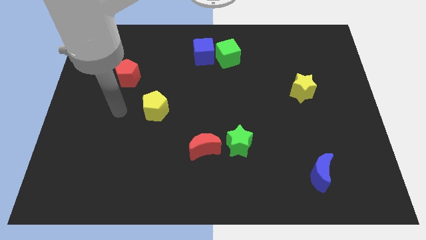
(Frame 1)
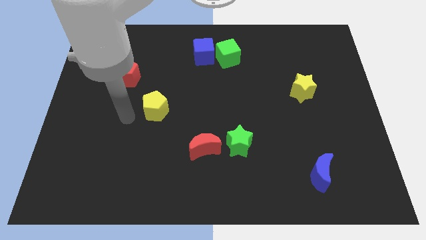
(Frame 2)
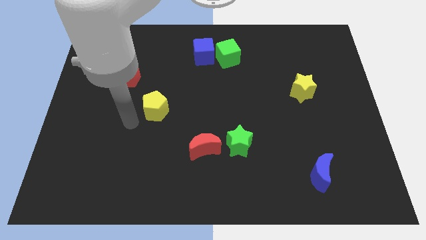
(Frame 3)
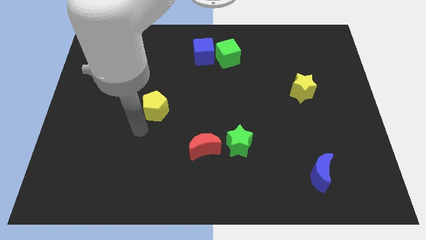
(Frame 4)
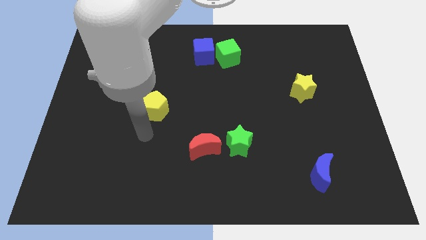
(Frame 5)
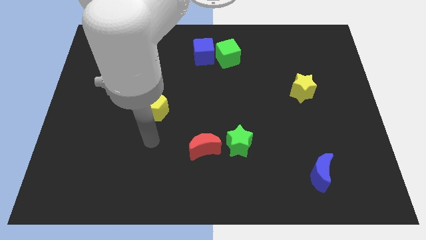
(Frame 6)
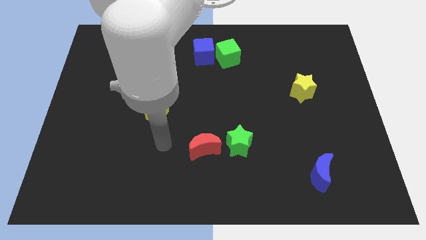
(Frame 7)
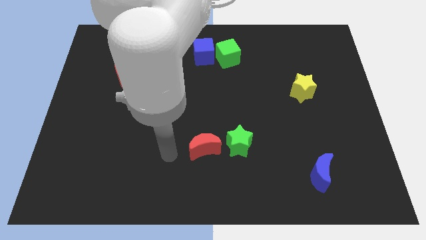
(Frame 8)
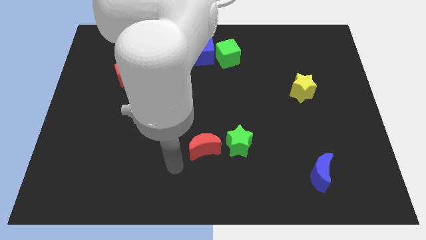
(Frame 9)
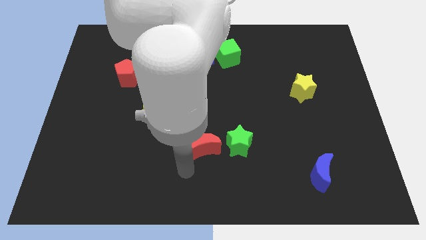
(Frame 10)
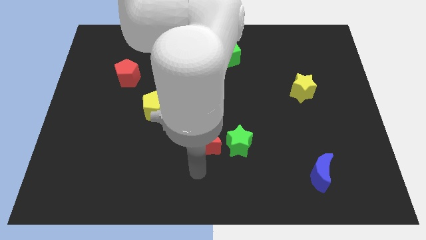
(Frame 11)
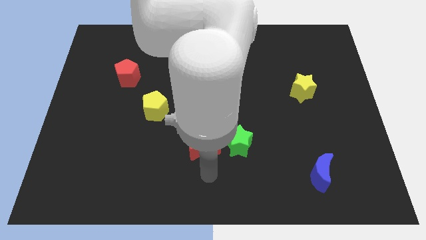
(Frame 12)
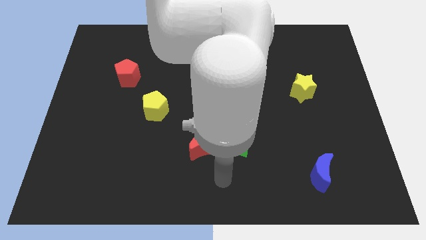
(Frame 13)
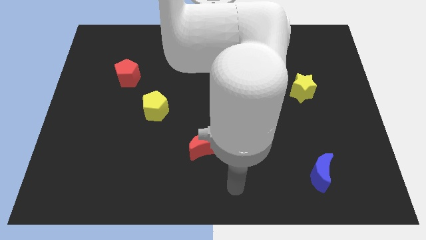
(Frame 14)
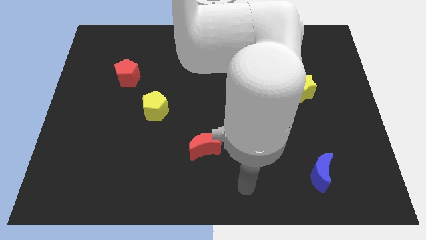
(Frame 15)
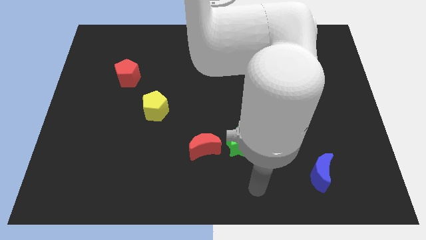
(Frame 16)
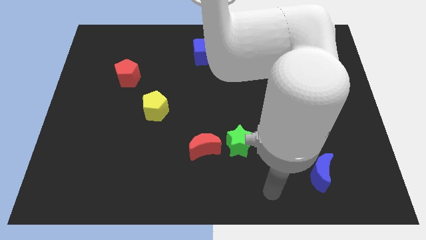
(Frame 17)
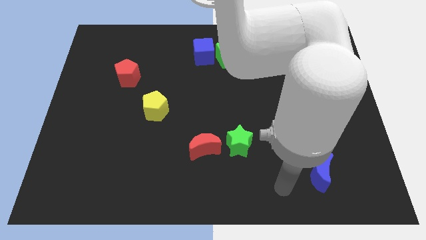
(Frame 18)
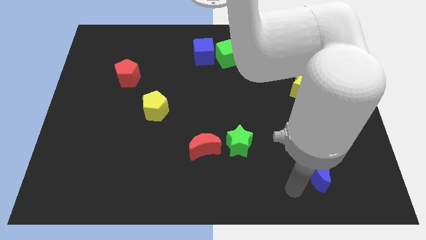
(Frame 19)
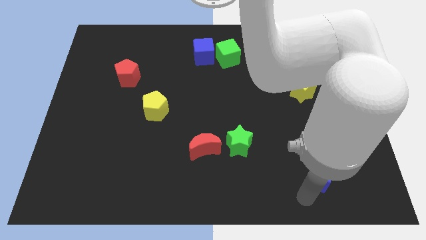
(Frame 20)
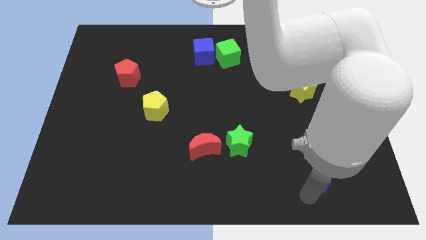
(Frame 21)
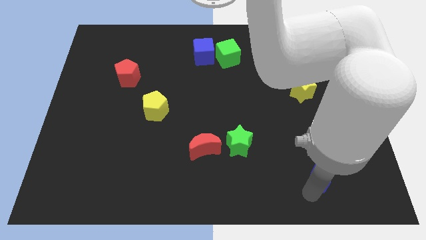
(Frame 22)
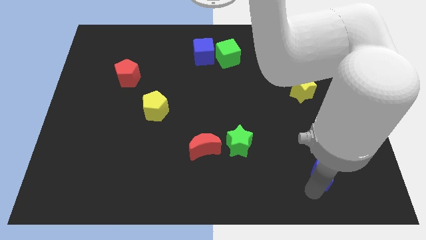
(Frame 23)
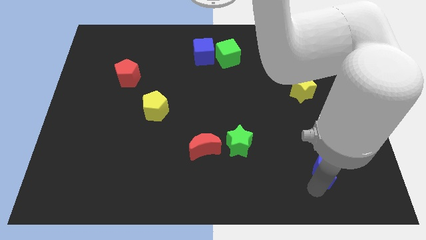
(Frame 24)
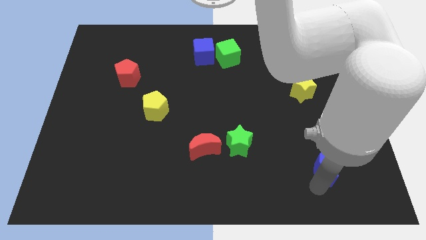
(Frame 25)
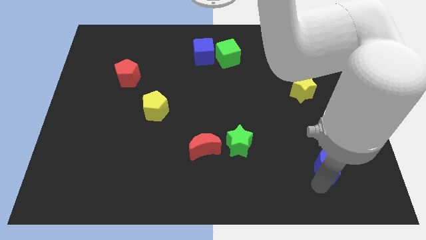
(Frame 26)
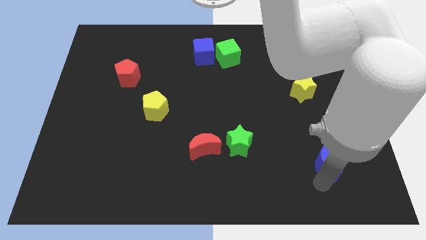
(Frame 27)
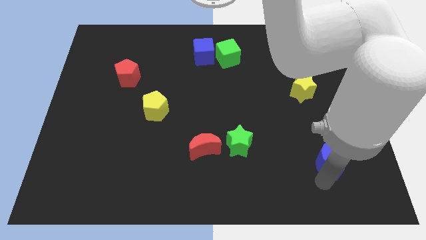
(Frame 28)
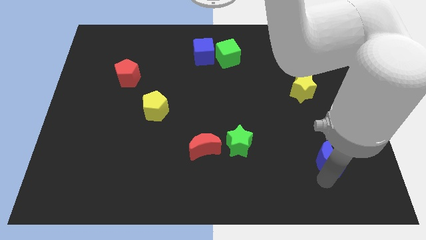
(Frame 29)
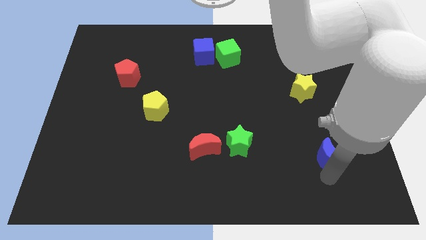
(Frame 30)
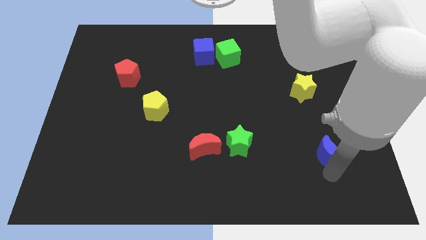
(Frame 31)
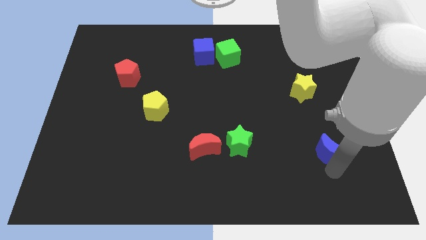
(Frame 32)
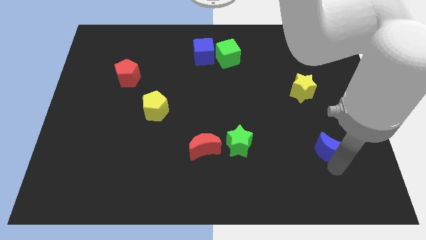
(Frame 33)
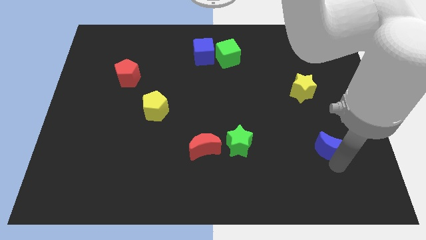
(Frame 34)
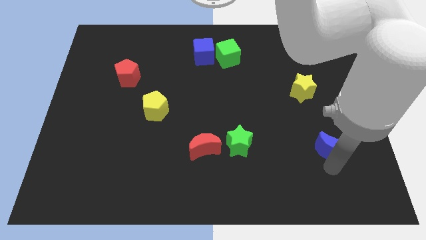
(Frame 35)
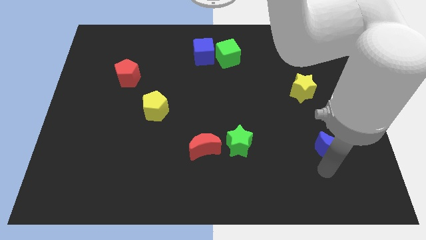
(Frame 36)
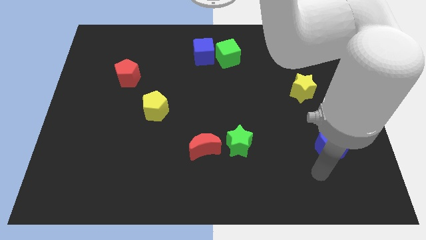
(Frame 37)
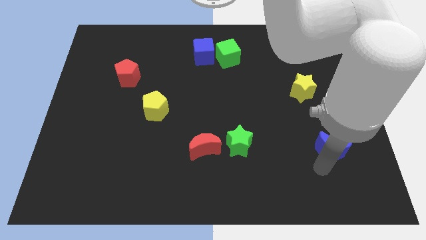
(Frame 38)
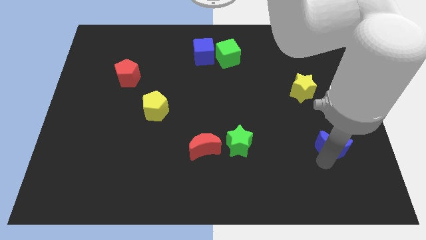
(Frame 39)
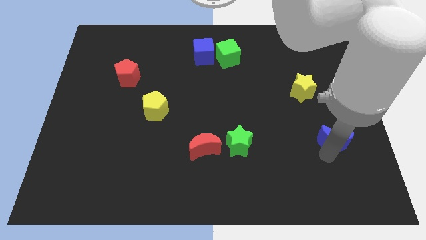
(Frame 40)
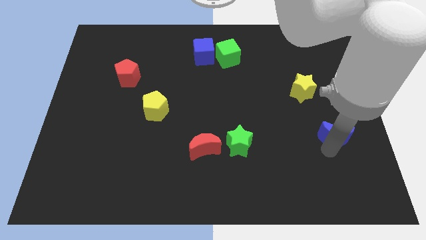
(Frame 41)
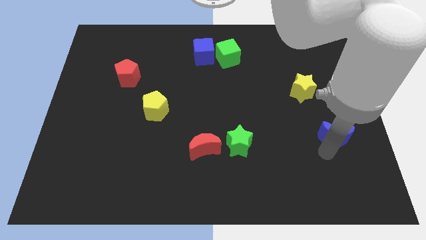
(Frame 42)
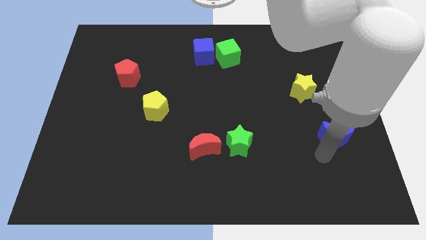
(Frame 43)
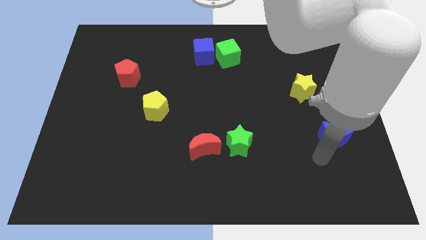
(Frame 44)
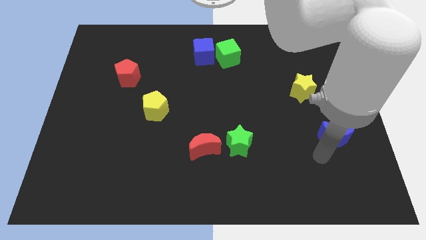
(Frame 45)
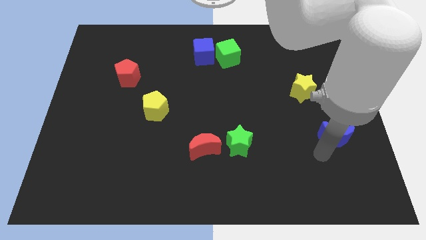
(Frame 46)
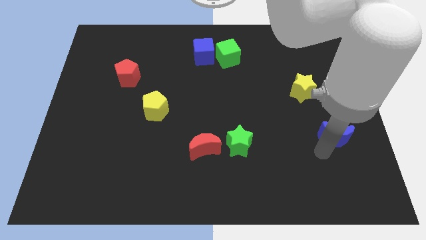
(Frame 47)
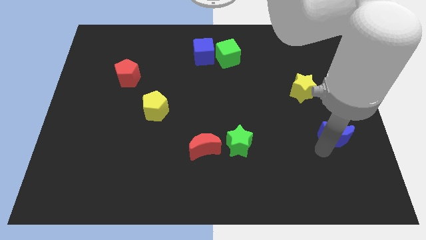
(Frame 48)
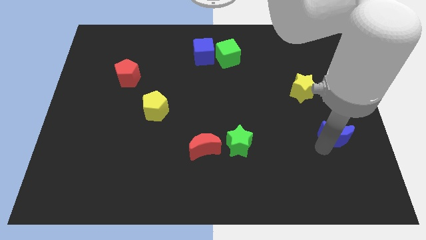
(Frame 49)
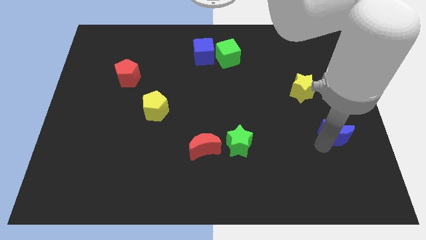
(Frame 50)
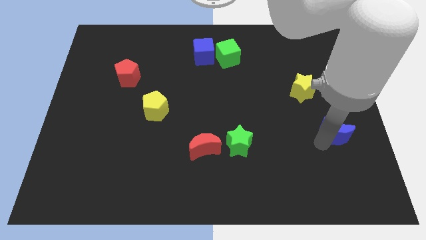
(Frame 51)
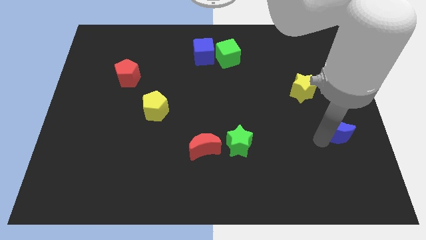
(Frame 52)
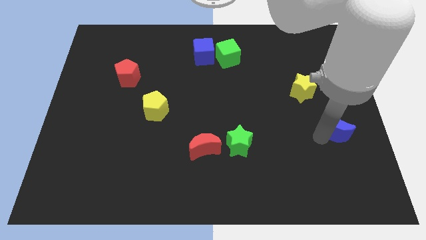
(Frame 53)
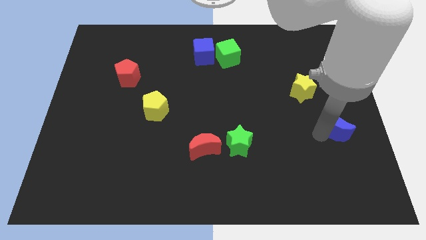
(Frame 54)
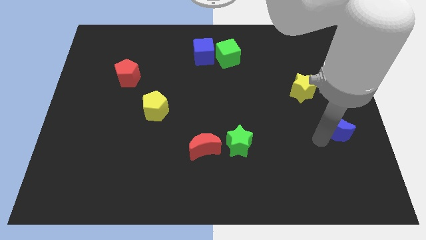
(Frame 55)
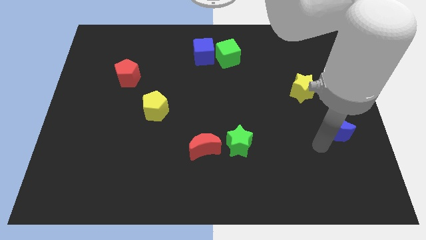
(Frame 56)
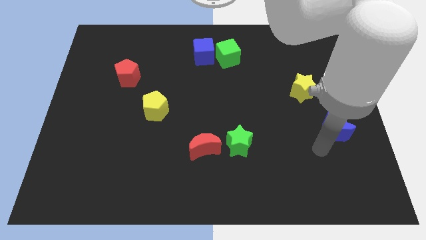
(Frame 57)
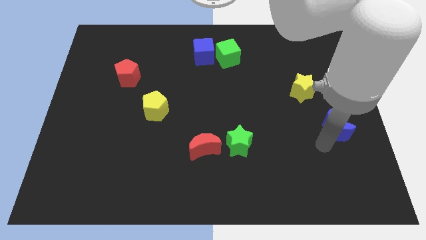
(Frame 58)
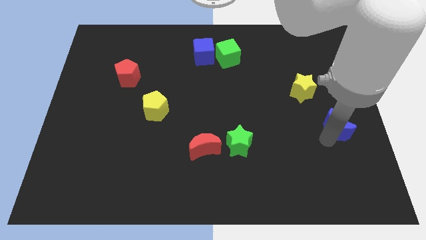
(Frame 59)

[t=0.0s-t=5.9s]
slide the blue moon to the right side

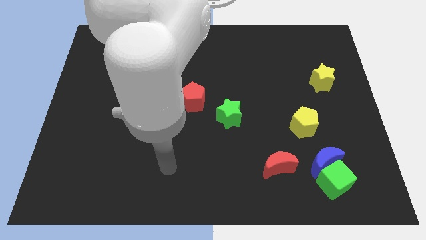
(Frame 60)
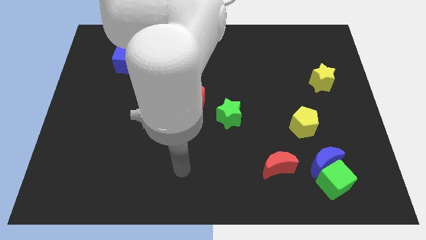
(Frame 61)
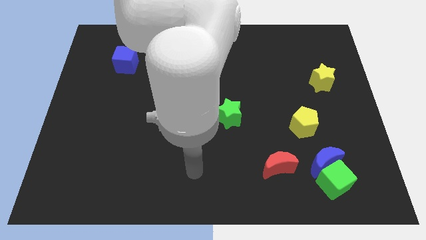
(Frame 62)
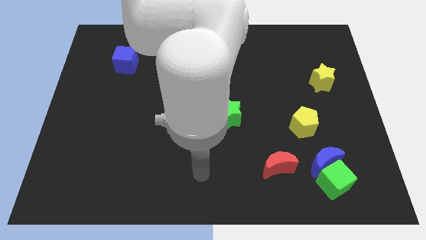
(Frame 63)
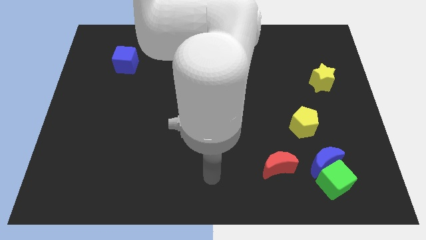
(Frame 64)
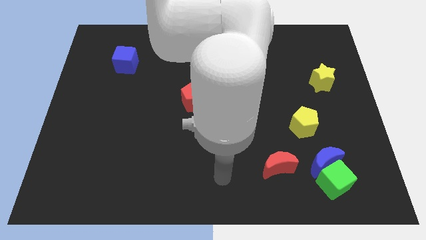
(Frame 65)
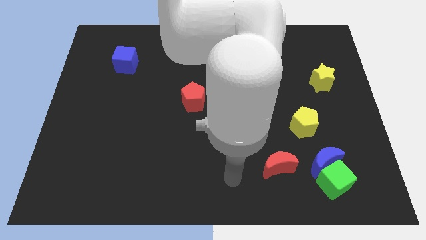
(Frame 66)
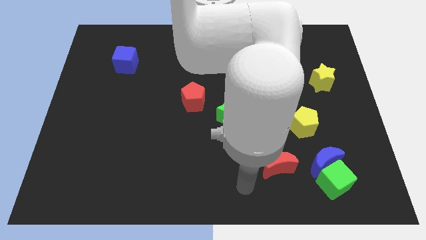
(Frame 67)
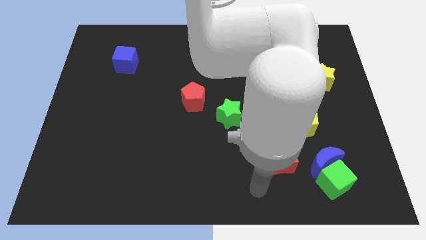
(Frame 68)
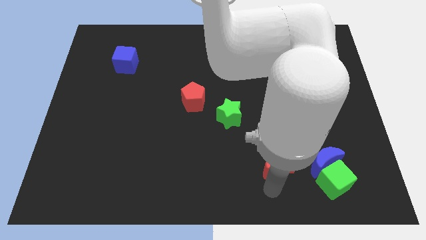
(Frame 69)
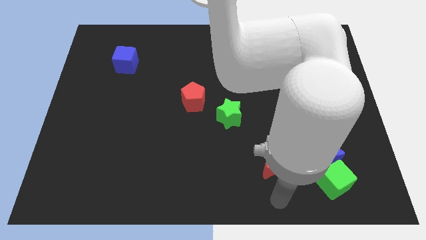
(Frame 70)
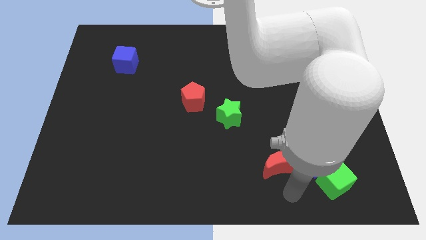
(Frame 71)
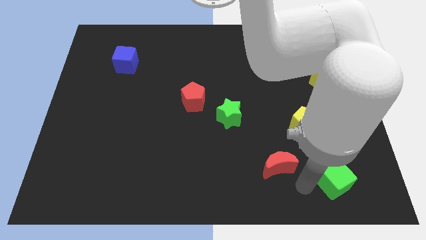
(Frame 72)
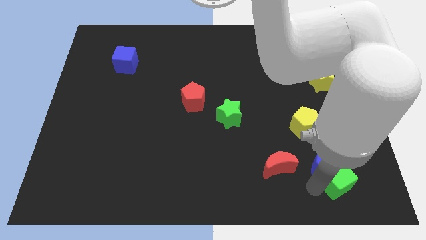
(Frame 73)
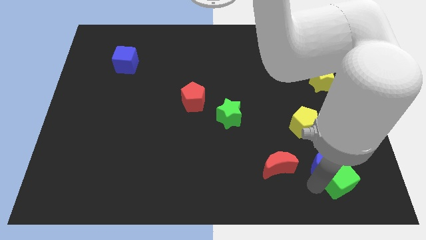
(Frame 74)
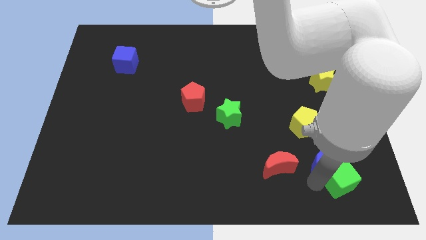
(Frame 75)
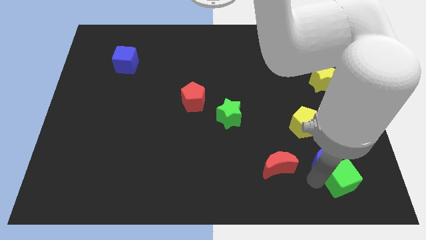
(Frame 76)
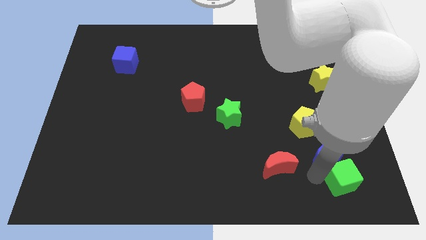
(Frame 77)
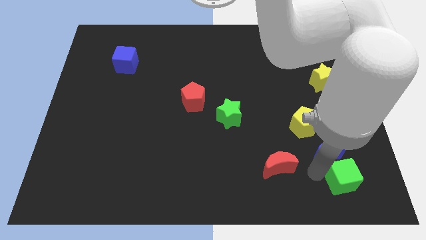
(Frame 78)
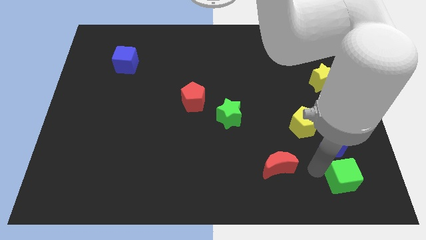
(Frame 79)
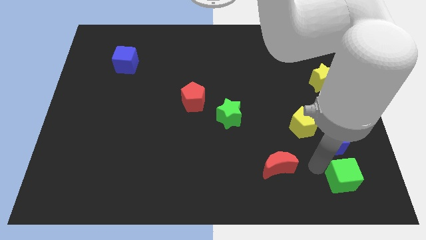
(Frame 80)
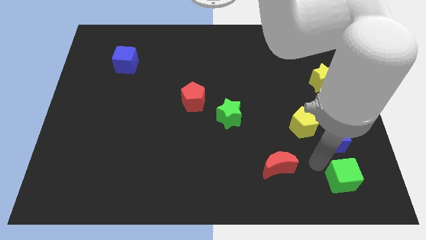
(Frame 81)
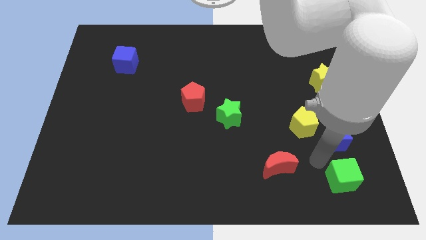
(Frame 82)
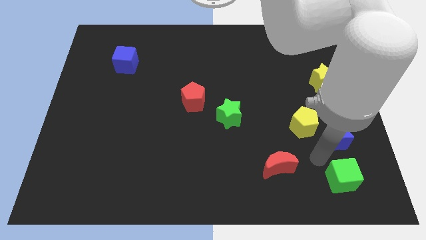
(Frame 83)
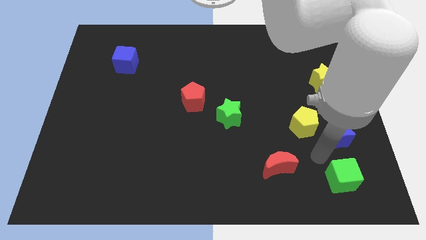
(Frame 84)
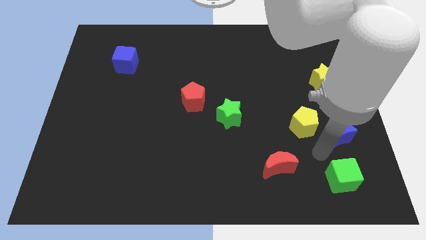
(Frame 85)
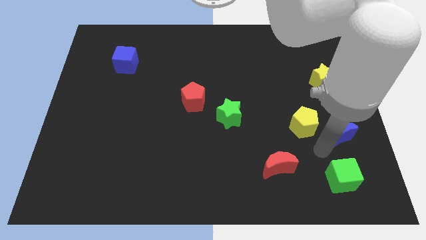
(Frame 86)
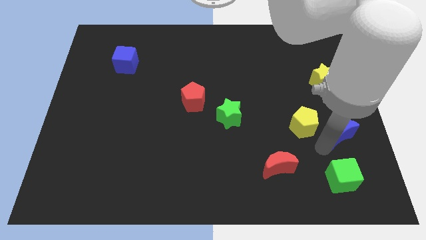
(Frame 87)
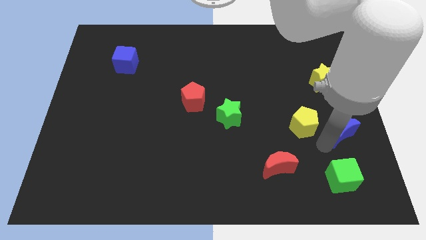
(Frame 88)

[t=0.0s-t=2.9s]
push the blue moon to the center right
